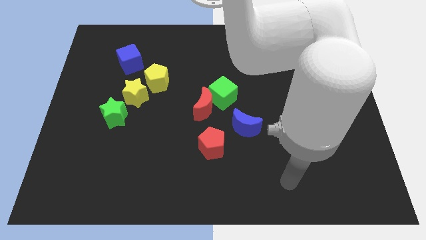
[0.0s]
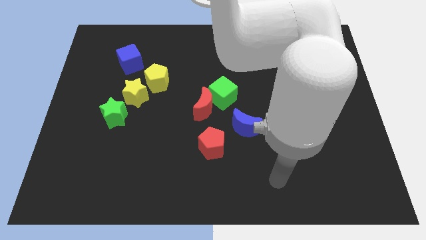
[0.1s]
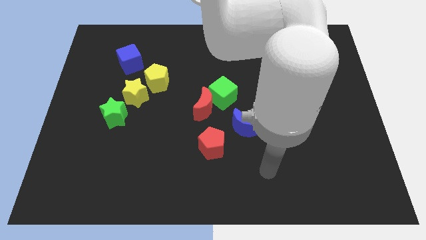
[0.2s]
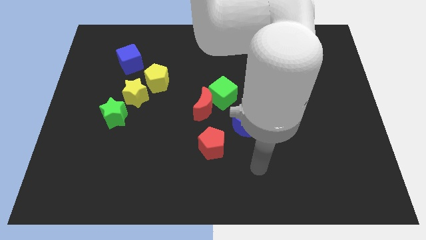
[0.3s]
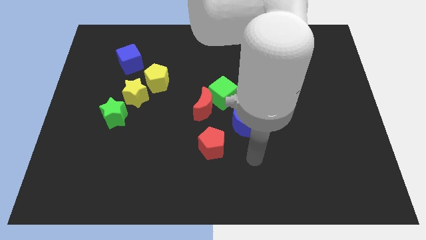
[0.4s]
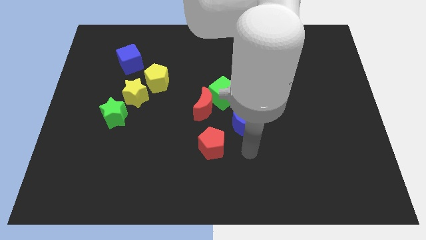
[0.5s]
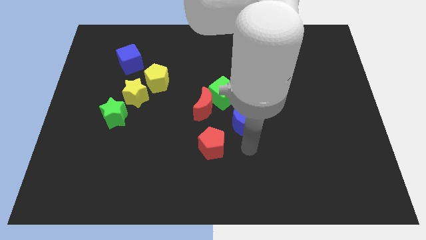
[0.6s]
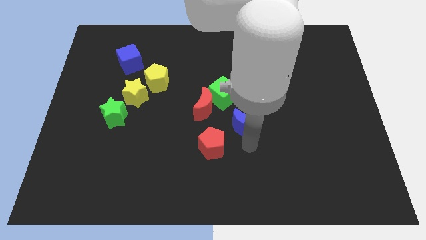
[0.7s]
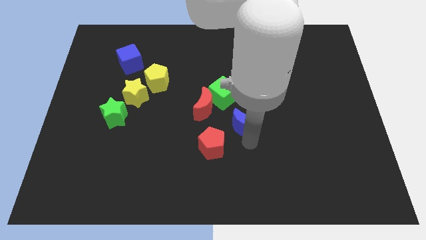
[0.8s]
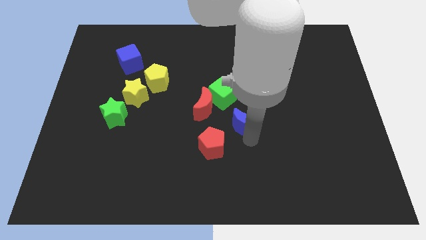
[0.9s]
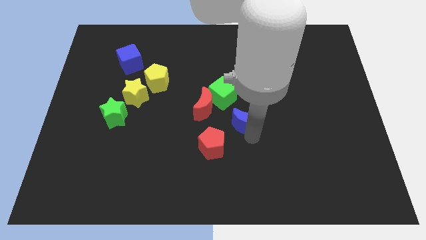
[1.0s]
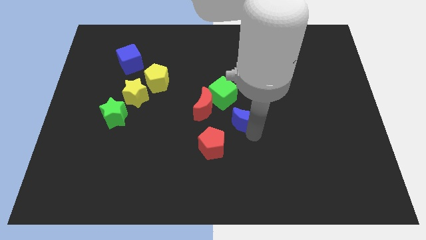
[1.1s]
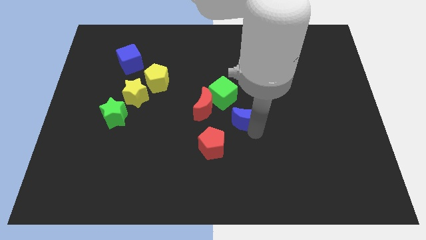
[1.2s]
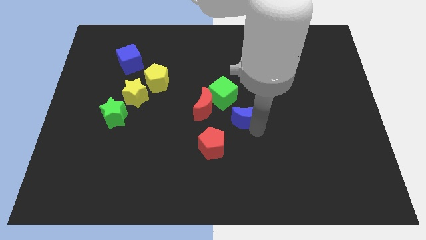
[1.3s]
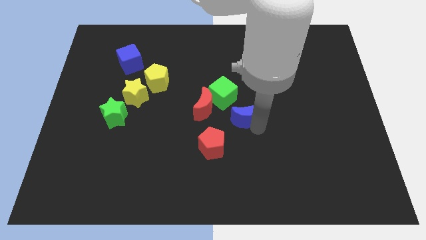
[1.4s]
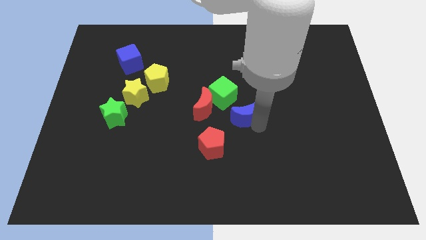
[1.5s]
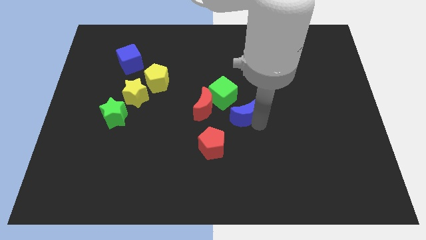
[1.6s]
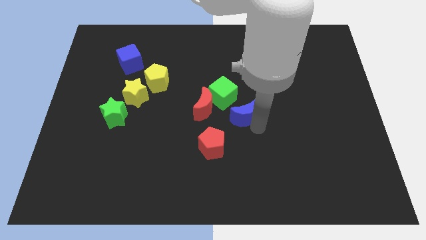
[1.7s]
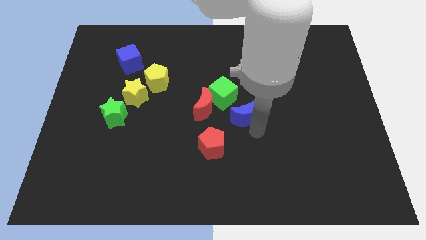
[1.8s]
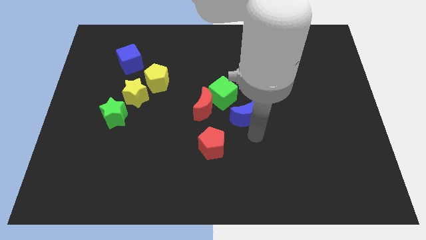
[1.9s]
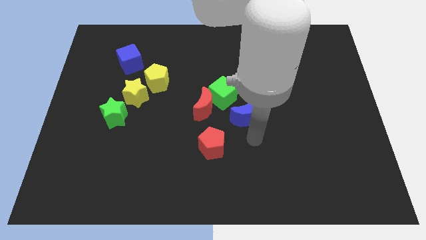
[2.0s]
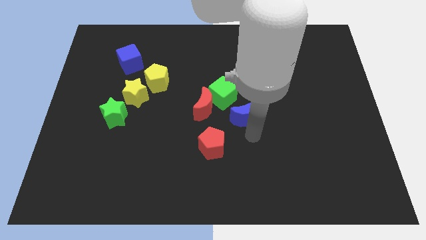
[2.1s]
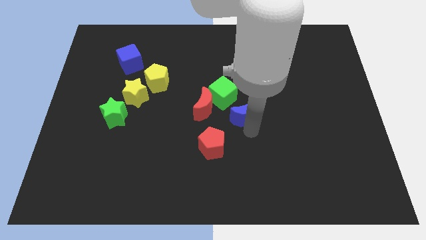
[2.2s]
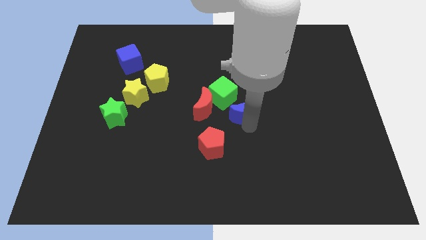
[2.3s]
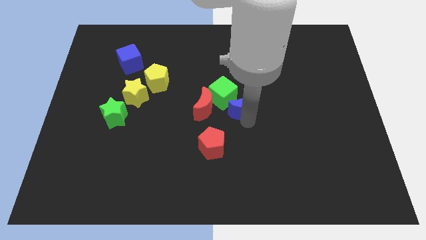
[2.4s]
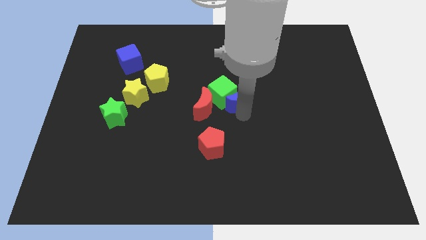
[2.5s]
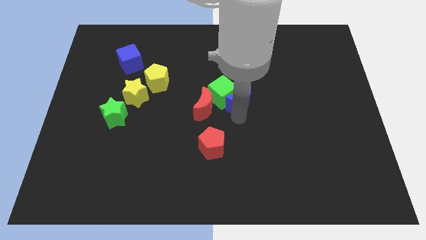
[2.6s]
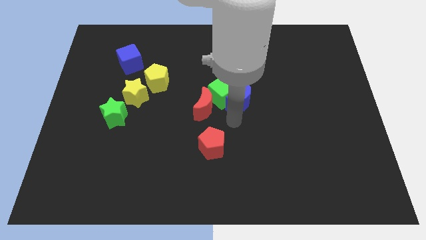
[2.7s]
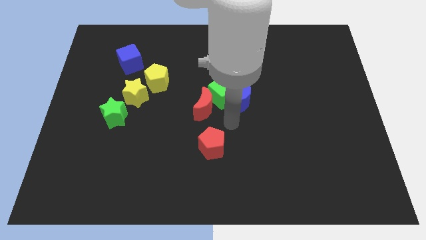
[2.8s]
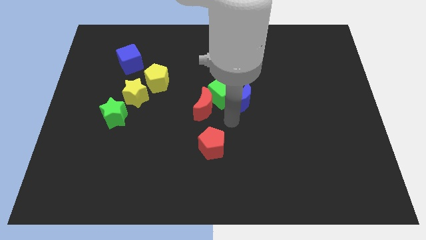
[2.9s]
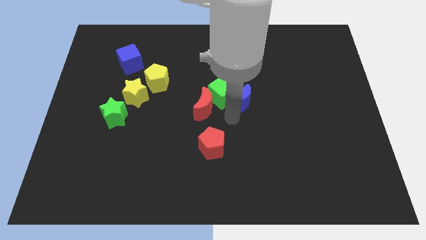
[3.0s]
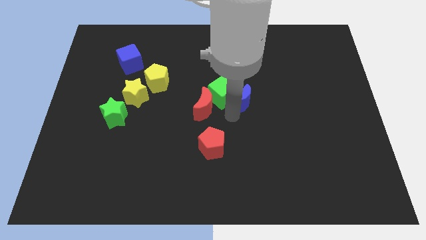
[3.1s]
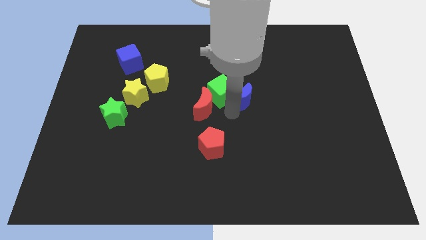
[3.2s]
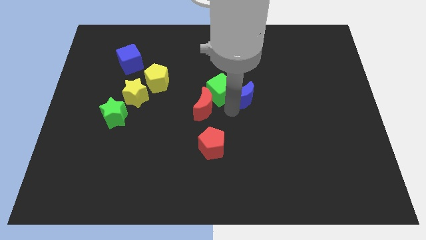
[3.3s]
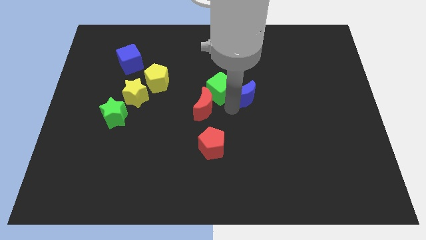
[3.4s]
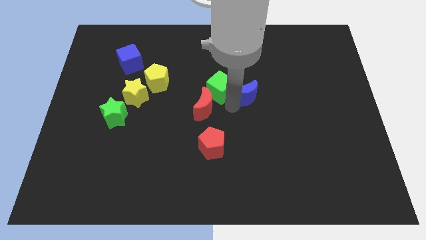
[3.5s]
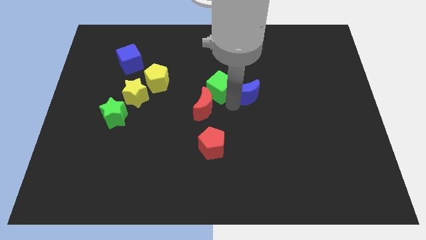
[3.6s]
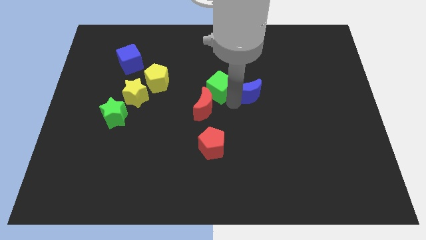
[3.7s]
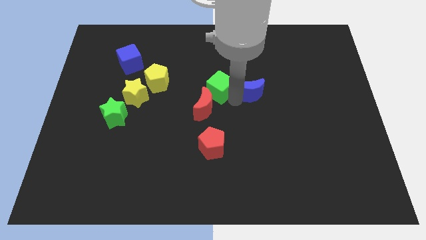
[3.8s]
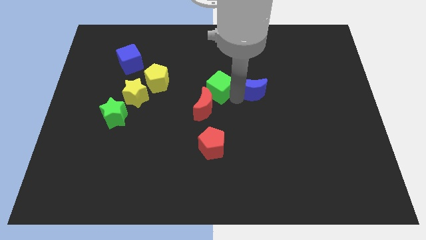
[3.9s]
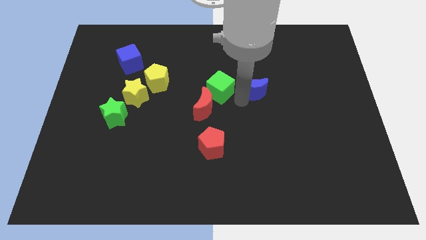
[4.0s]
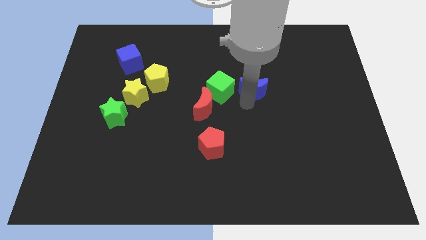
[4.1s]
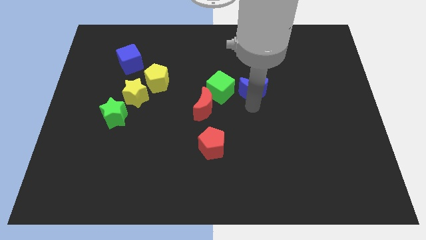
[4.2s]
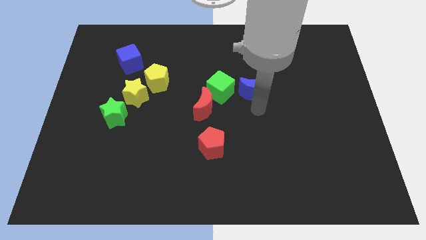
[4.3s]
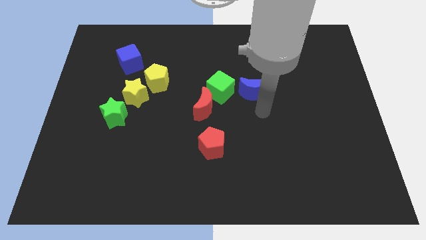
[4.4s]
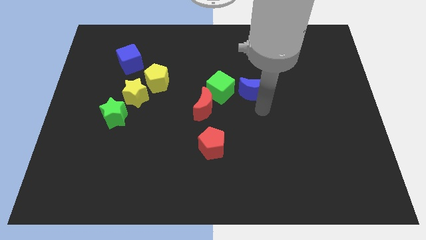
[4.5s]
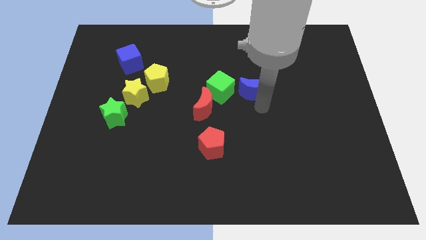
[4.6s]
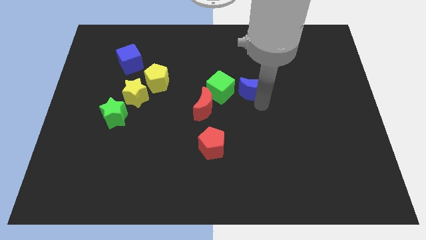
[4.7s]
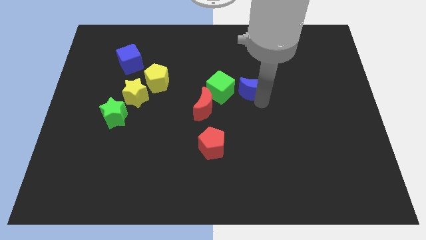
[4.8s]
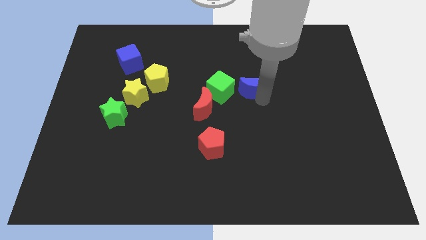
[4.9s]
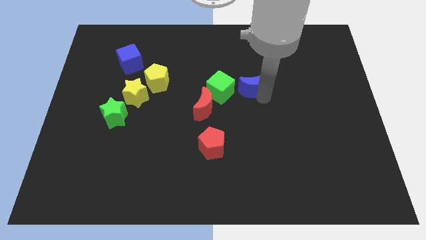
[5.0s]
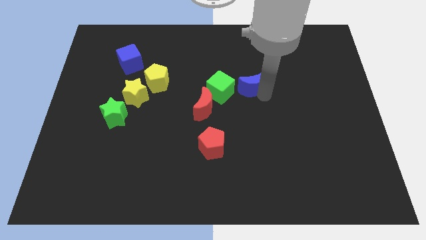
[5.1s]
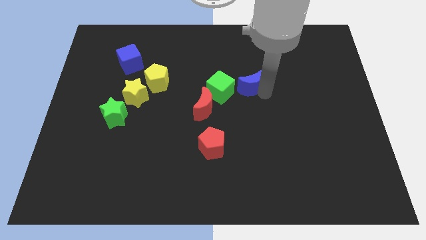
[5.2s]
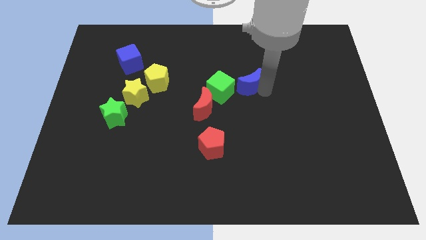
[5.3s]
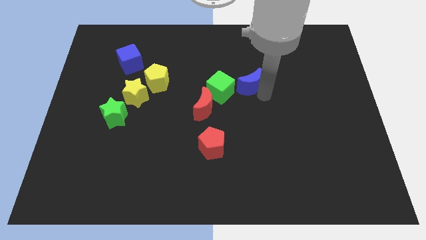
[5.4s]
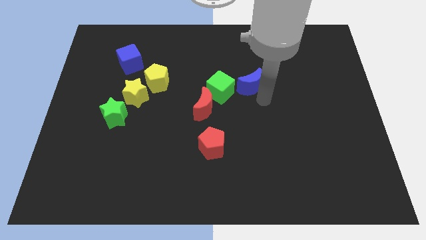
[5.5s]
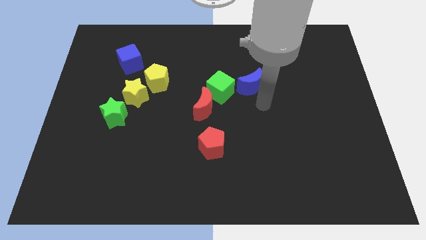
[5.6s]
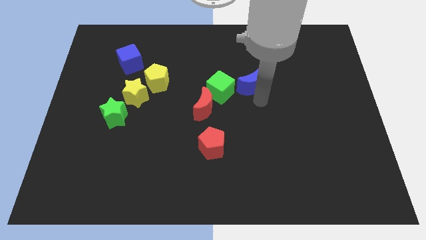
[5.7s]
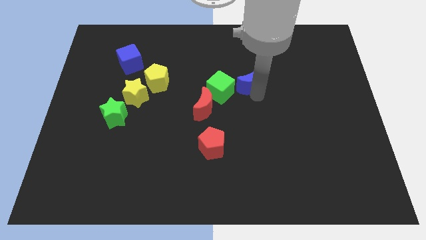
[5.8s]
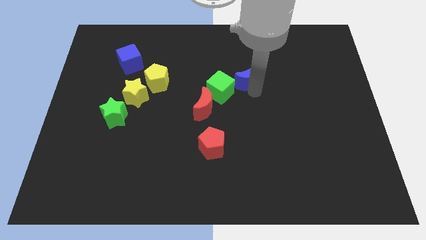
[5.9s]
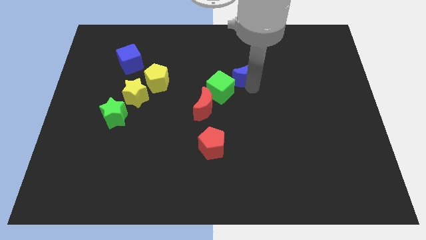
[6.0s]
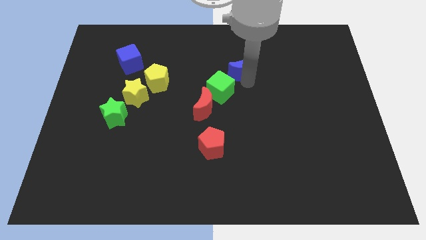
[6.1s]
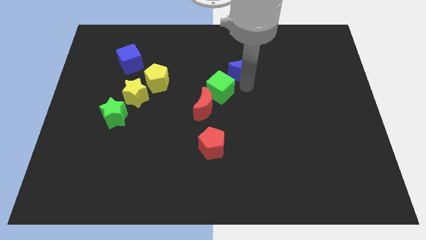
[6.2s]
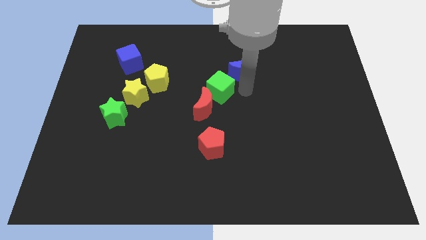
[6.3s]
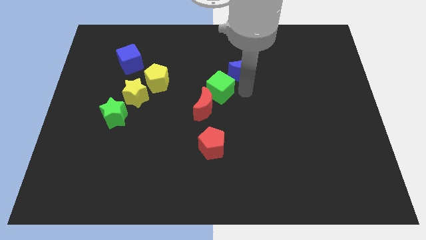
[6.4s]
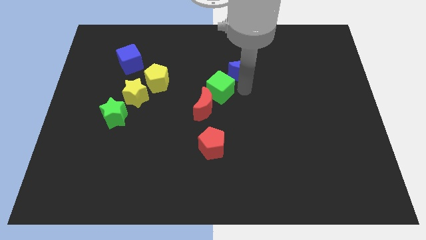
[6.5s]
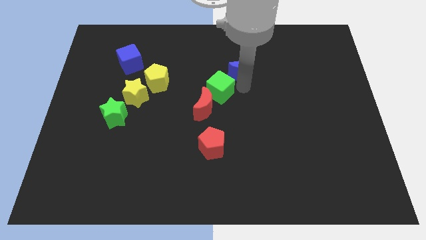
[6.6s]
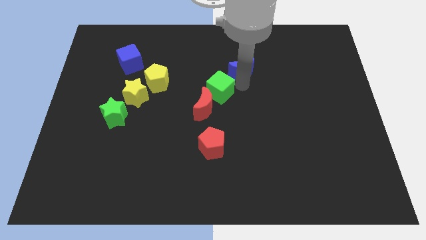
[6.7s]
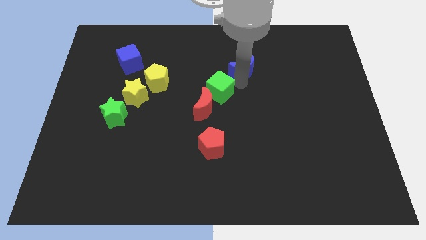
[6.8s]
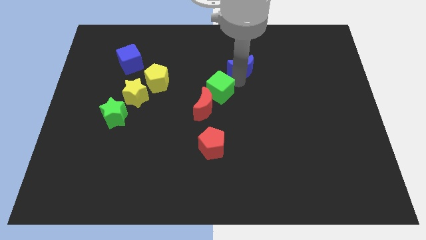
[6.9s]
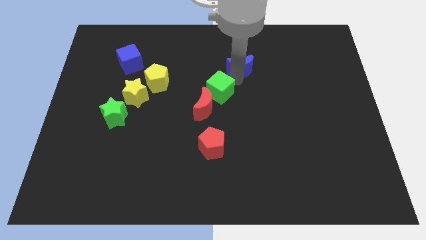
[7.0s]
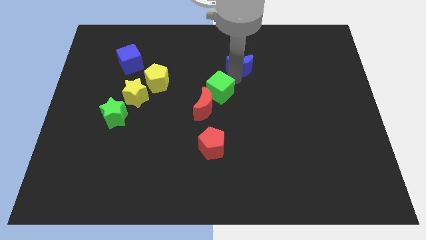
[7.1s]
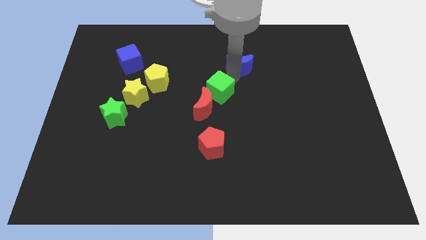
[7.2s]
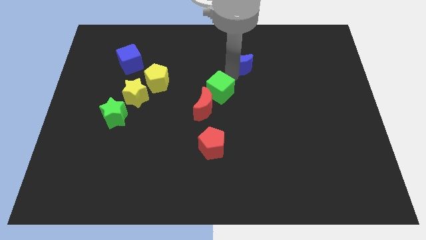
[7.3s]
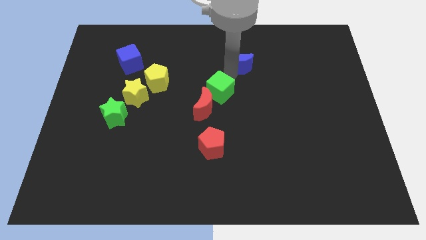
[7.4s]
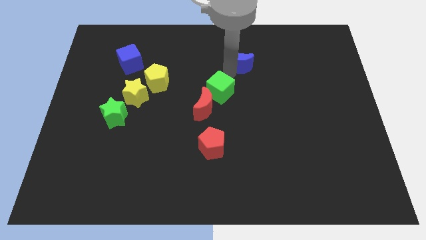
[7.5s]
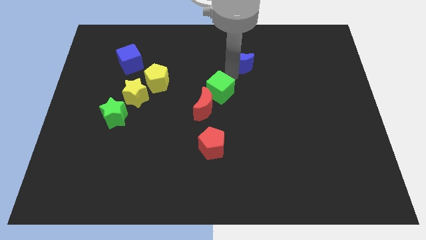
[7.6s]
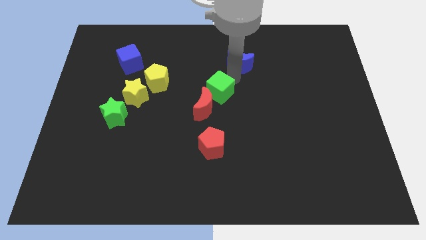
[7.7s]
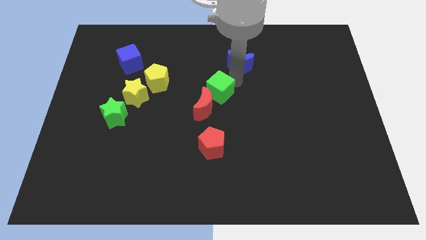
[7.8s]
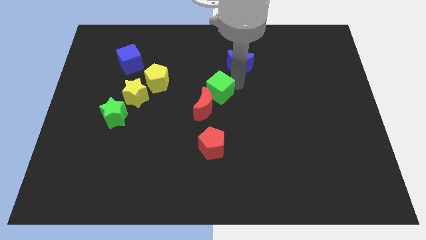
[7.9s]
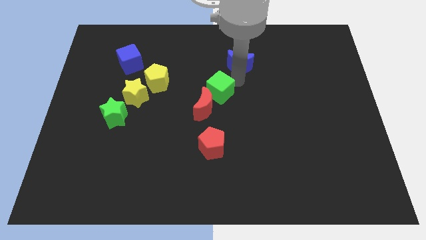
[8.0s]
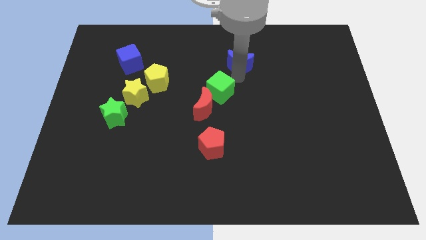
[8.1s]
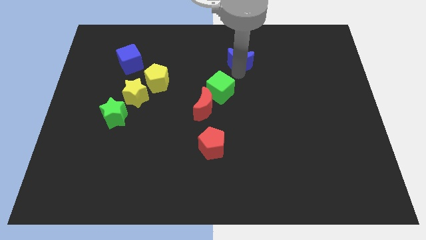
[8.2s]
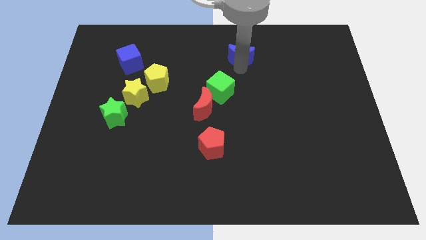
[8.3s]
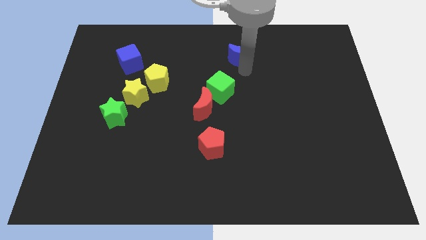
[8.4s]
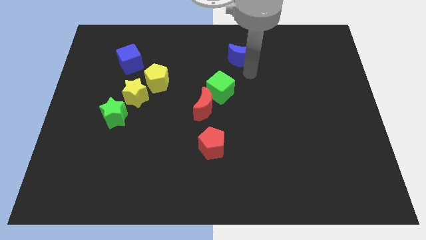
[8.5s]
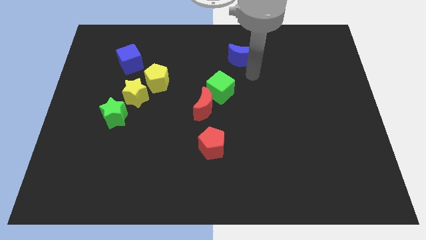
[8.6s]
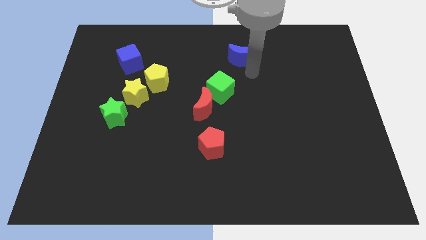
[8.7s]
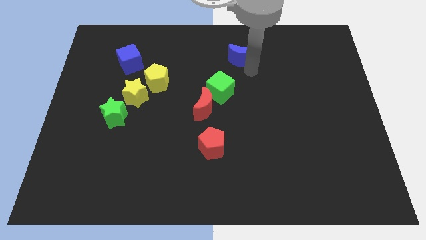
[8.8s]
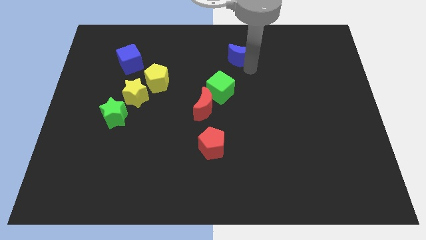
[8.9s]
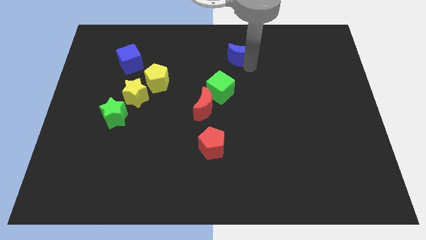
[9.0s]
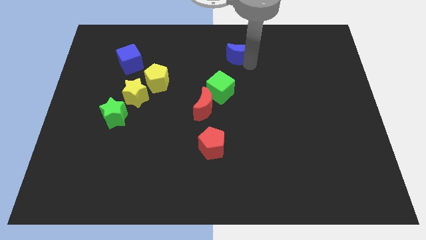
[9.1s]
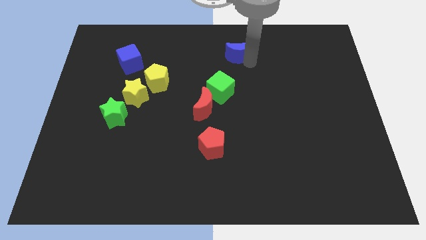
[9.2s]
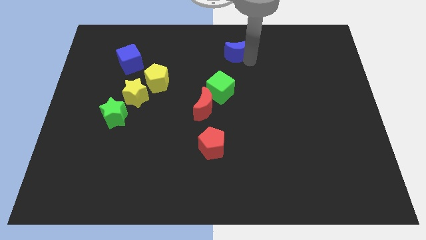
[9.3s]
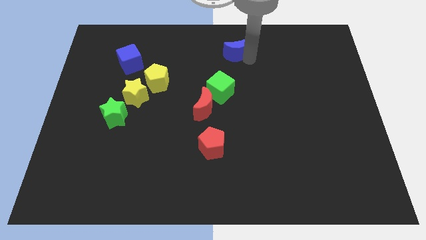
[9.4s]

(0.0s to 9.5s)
put the blue moon to the top side
